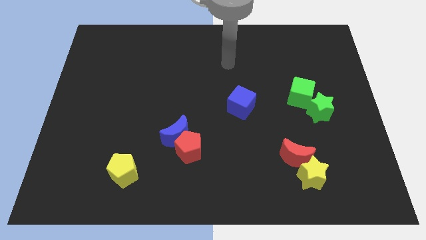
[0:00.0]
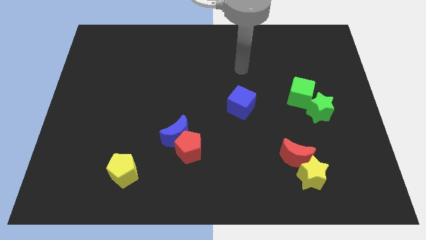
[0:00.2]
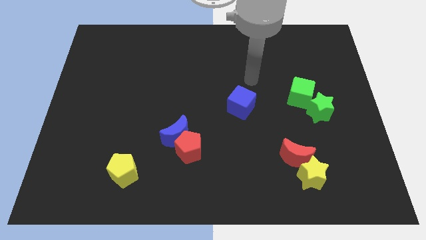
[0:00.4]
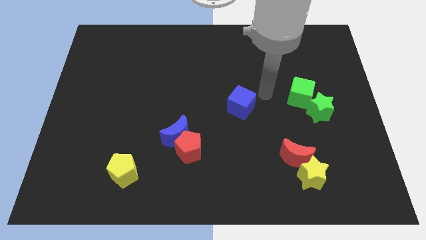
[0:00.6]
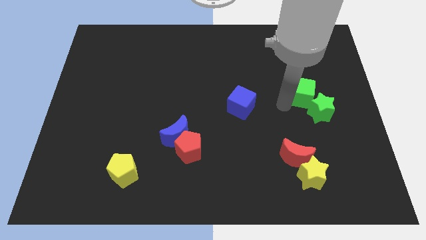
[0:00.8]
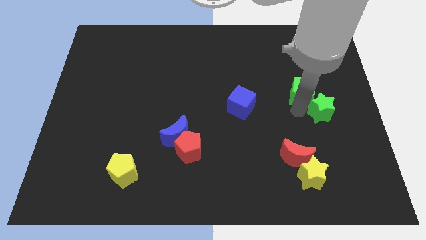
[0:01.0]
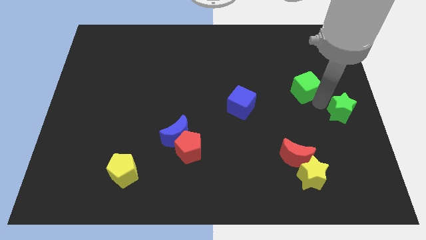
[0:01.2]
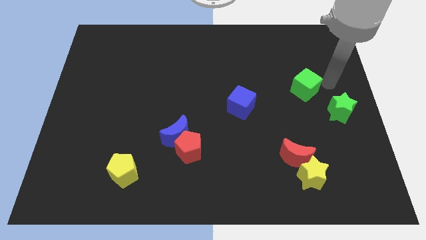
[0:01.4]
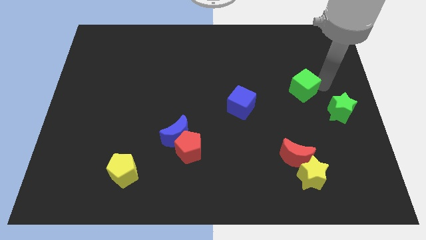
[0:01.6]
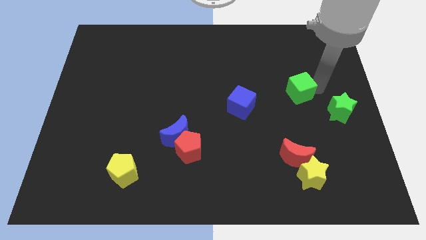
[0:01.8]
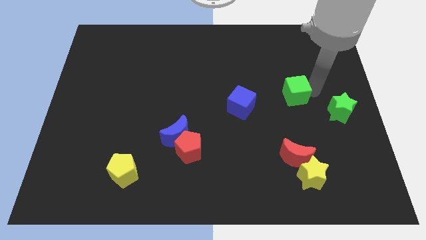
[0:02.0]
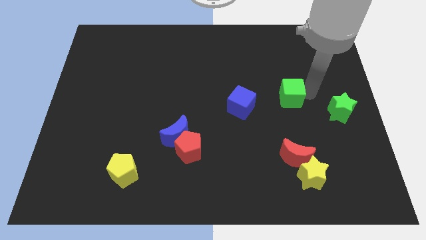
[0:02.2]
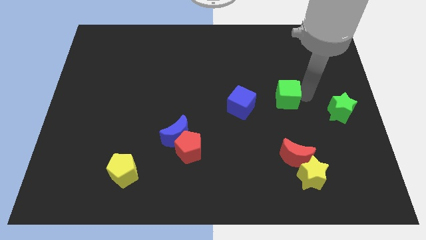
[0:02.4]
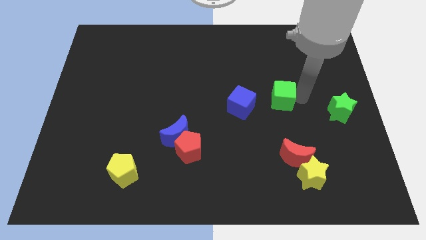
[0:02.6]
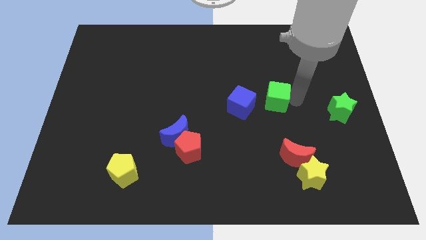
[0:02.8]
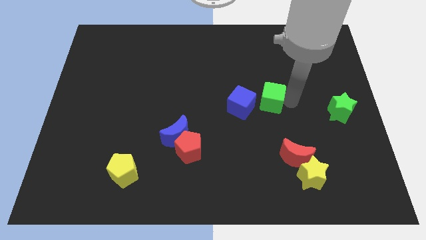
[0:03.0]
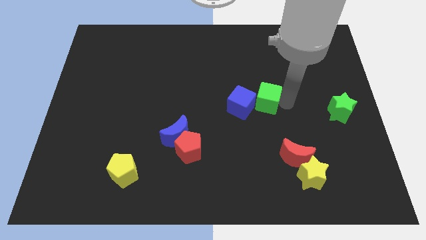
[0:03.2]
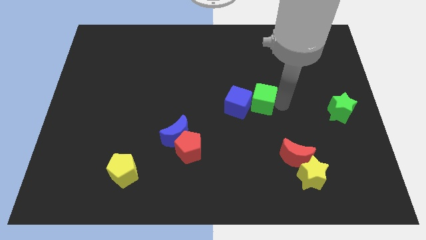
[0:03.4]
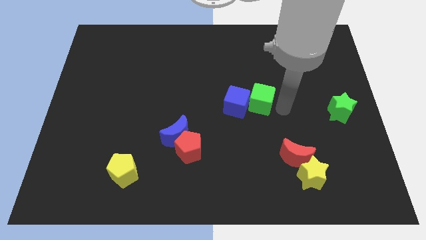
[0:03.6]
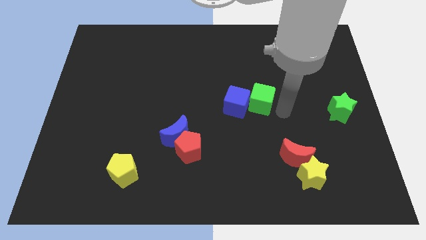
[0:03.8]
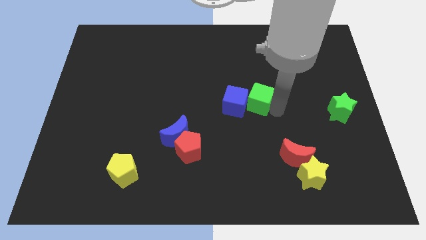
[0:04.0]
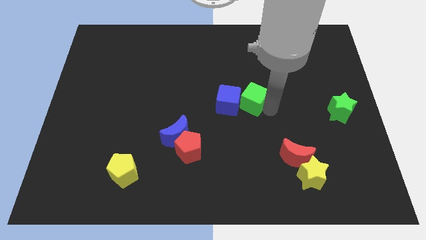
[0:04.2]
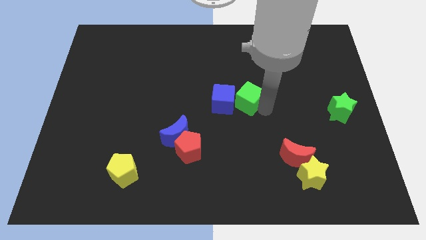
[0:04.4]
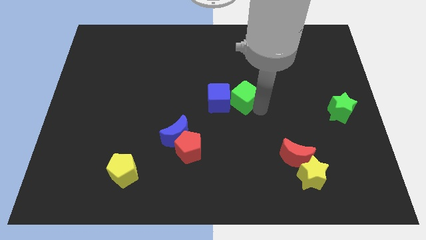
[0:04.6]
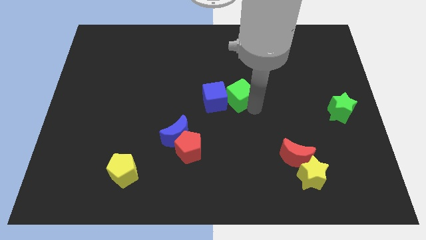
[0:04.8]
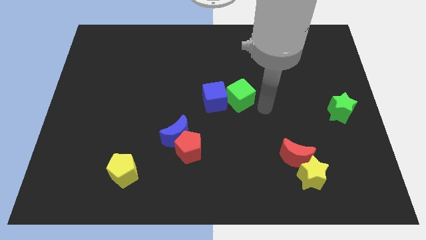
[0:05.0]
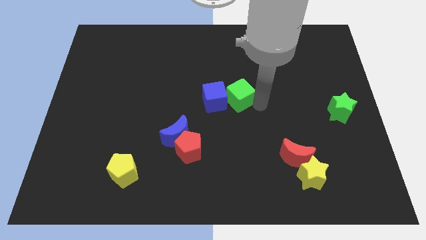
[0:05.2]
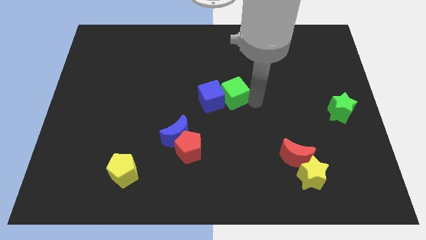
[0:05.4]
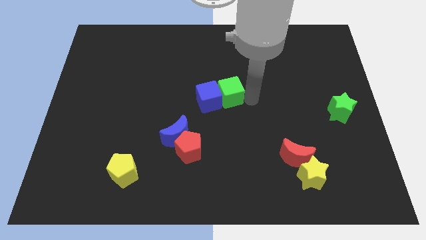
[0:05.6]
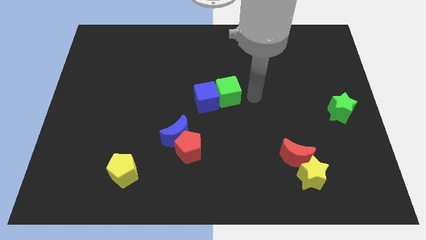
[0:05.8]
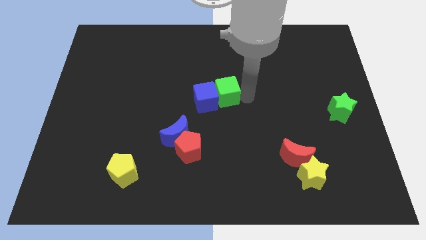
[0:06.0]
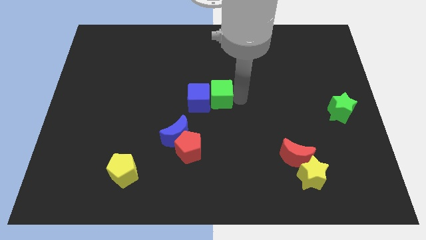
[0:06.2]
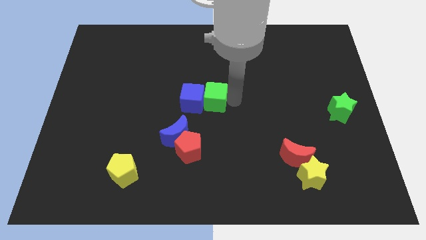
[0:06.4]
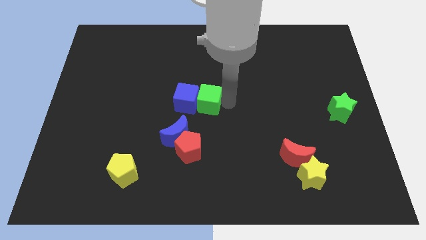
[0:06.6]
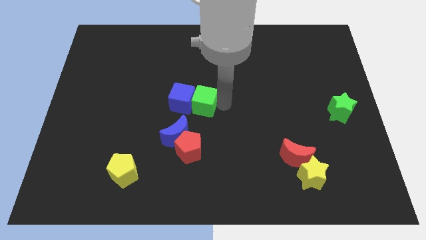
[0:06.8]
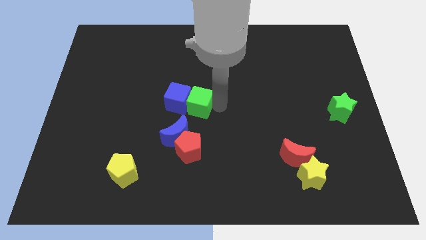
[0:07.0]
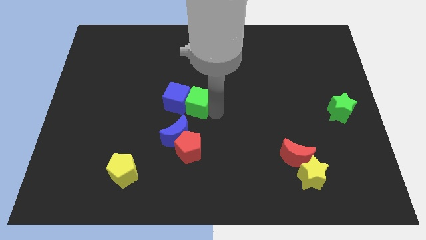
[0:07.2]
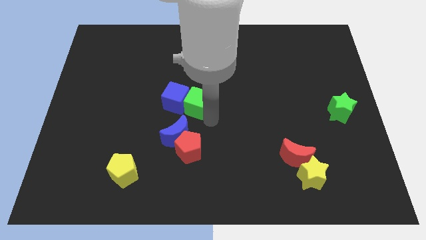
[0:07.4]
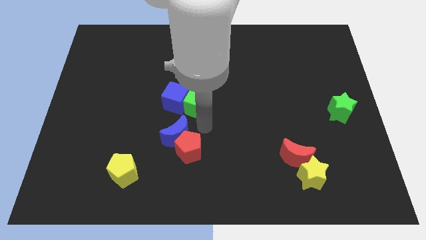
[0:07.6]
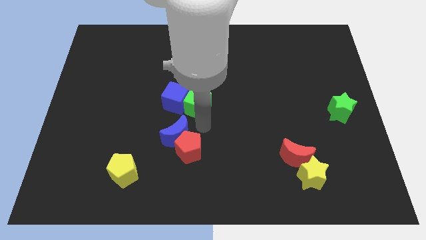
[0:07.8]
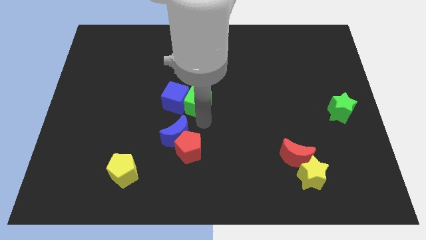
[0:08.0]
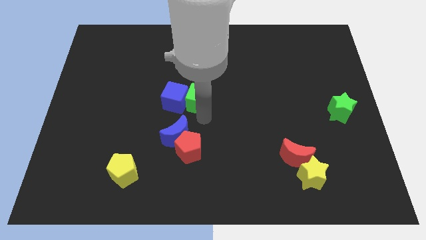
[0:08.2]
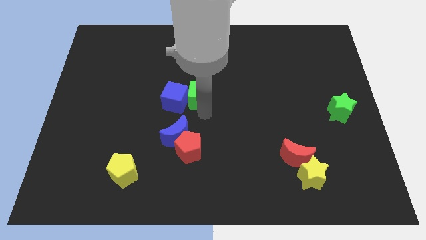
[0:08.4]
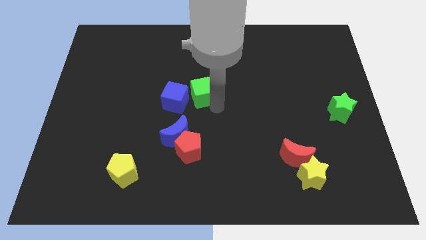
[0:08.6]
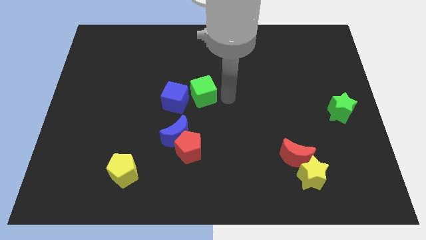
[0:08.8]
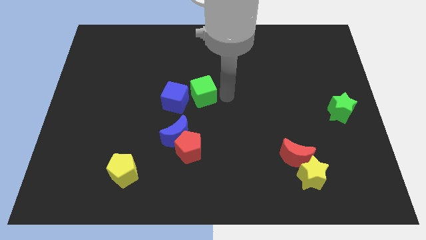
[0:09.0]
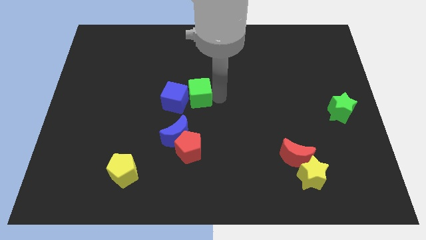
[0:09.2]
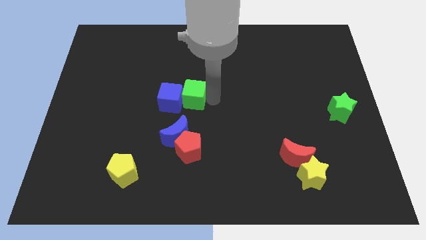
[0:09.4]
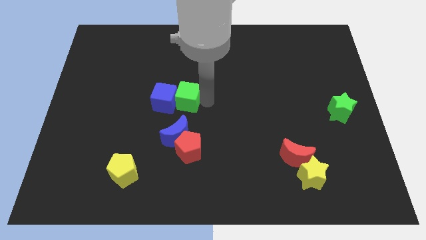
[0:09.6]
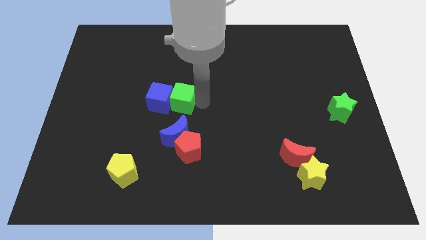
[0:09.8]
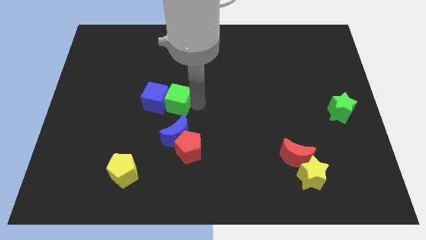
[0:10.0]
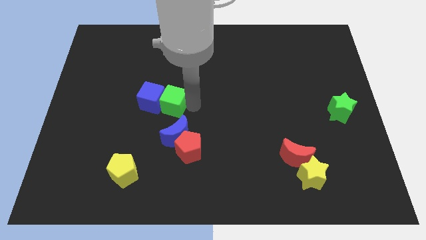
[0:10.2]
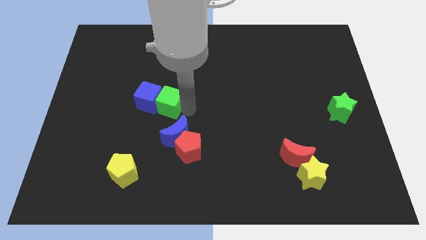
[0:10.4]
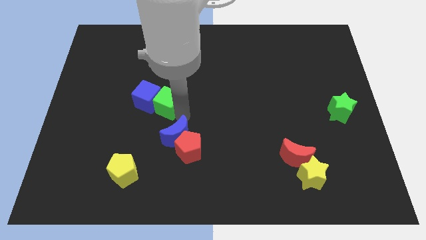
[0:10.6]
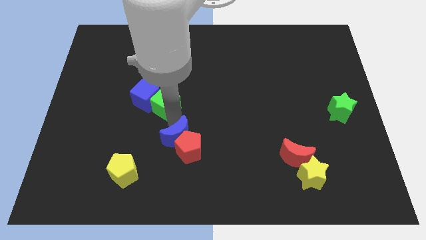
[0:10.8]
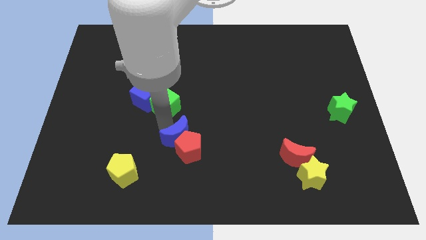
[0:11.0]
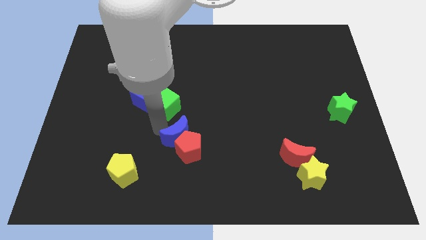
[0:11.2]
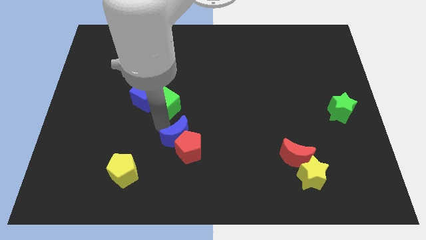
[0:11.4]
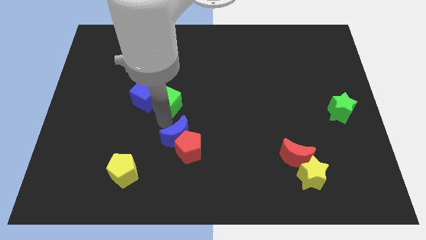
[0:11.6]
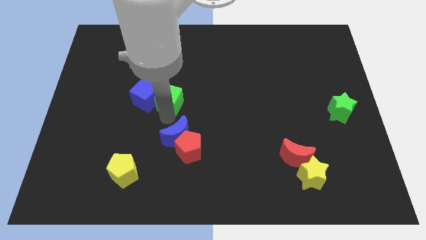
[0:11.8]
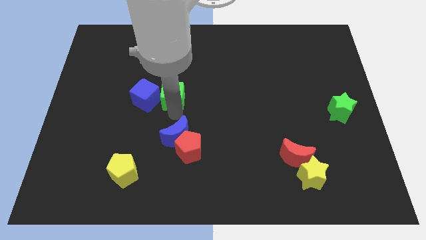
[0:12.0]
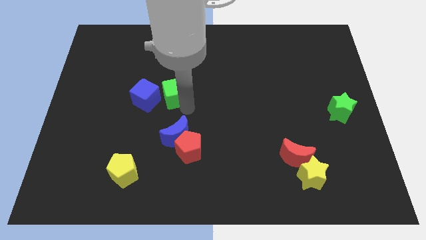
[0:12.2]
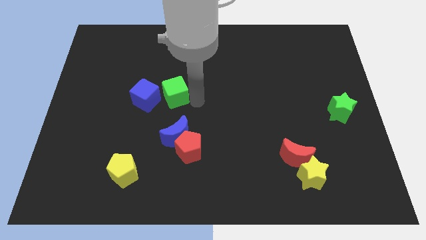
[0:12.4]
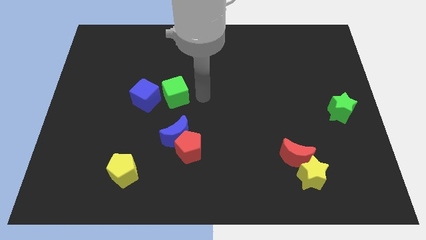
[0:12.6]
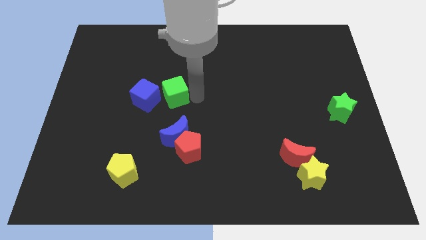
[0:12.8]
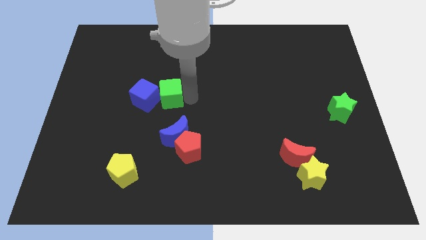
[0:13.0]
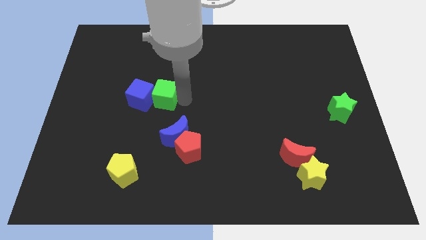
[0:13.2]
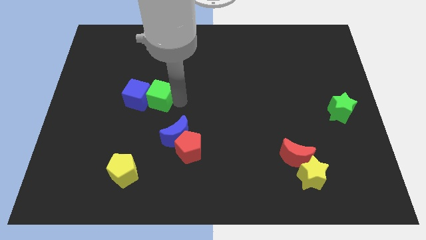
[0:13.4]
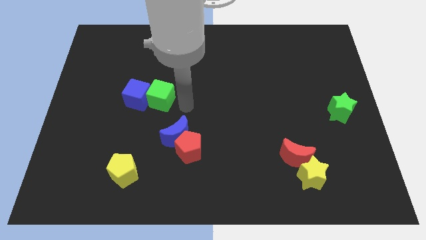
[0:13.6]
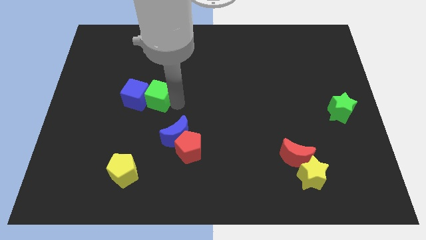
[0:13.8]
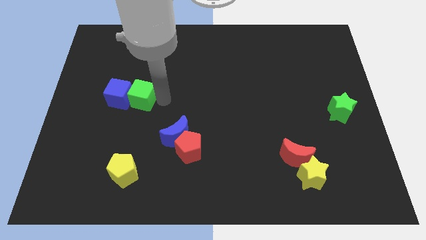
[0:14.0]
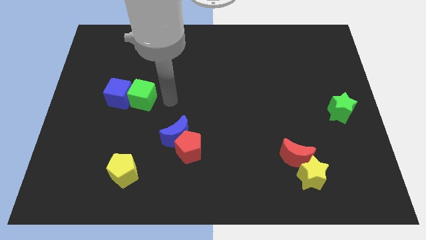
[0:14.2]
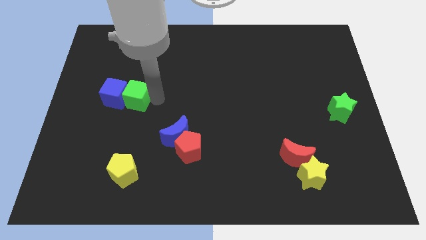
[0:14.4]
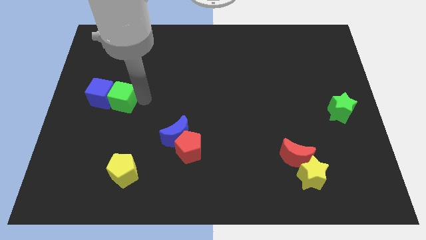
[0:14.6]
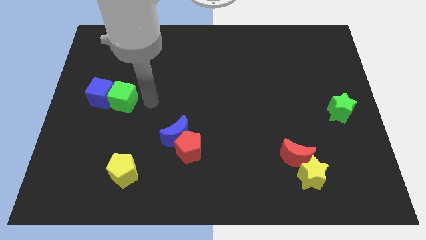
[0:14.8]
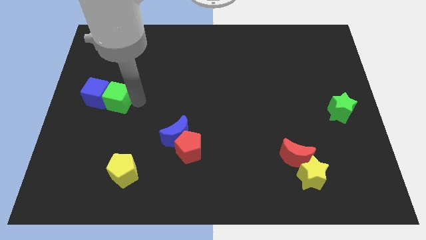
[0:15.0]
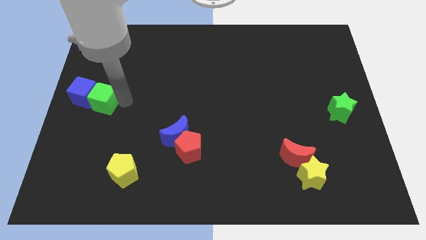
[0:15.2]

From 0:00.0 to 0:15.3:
put the green cube to the center left
